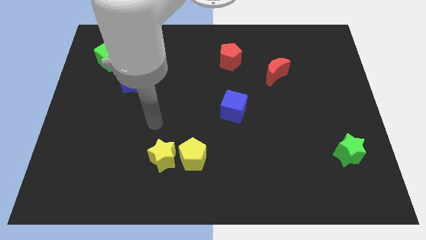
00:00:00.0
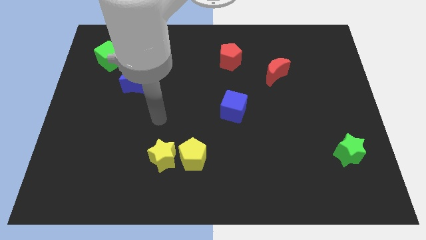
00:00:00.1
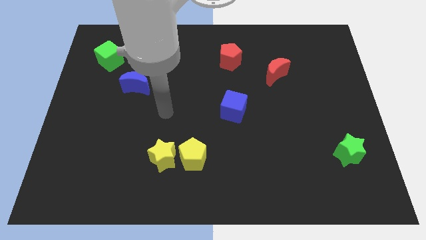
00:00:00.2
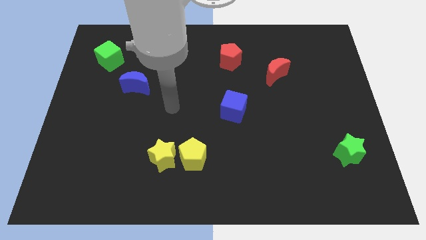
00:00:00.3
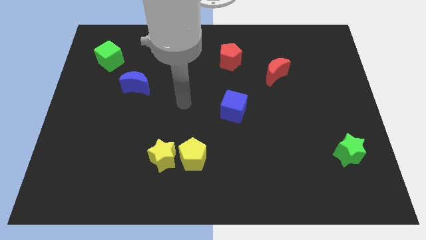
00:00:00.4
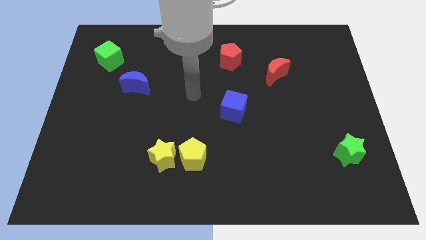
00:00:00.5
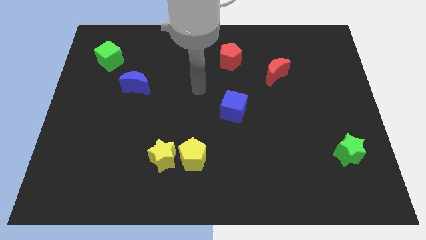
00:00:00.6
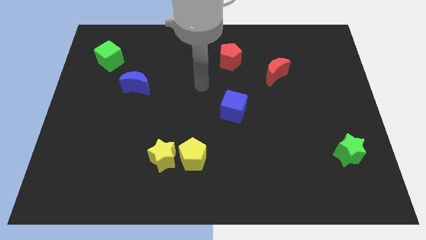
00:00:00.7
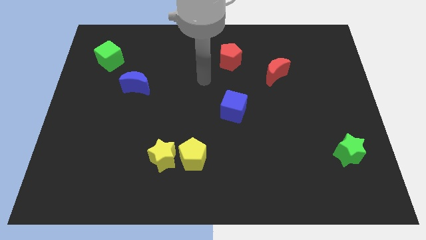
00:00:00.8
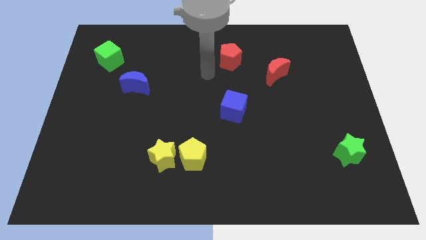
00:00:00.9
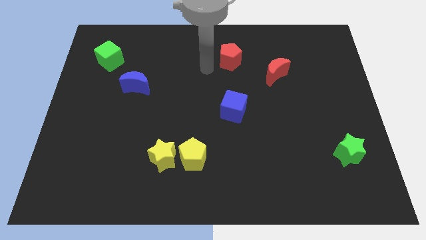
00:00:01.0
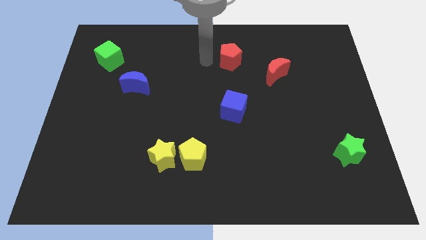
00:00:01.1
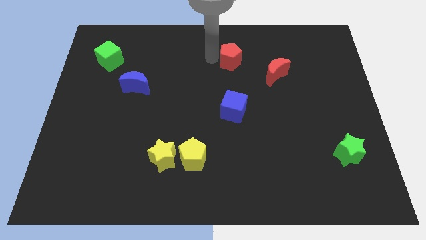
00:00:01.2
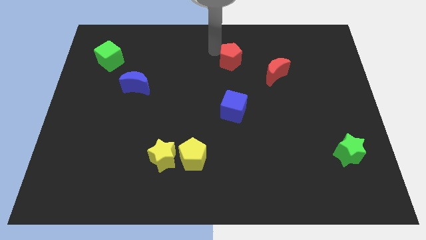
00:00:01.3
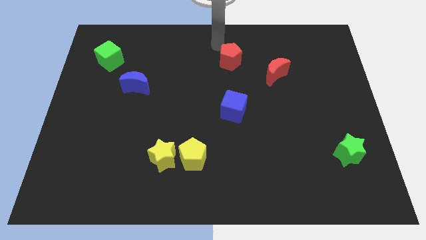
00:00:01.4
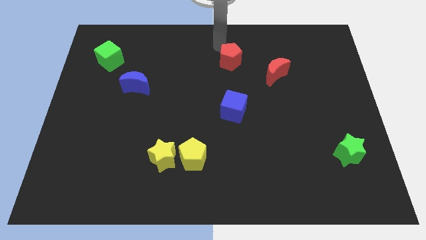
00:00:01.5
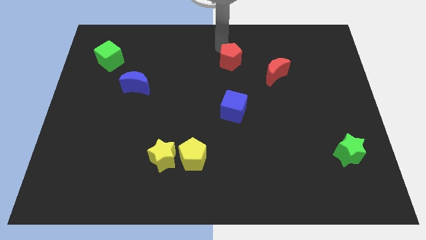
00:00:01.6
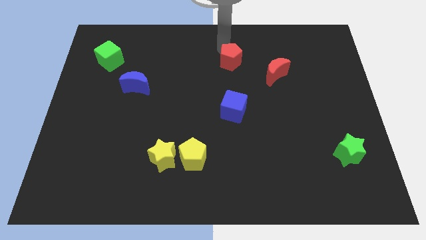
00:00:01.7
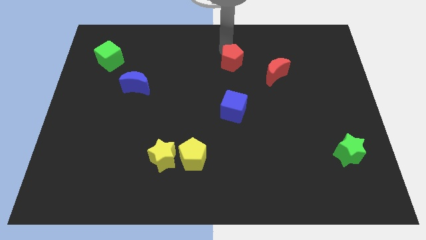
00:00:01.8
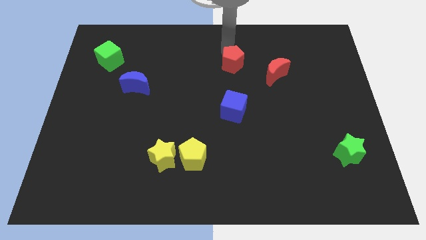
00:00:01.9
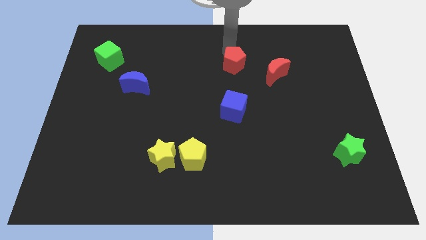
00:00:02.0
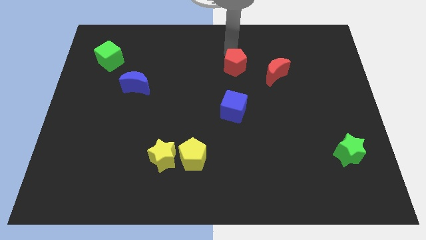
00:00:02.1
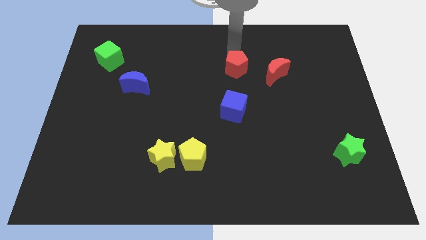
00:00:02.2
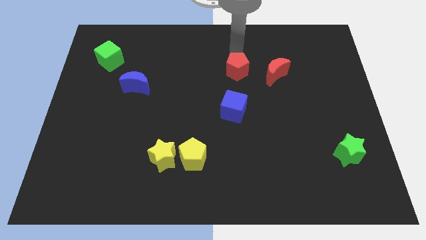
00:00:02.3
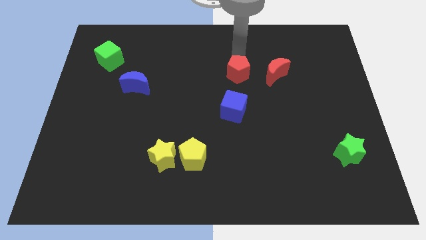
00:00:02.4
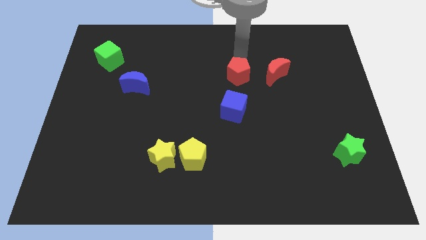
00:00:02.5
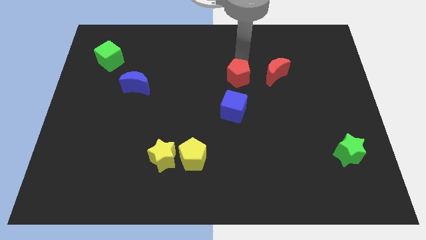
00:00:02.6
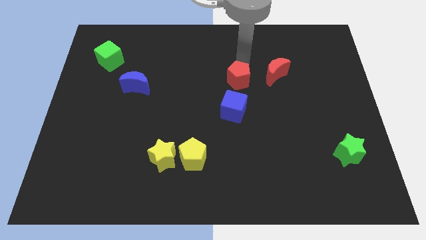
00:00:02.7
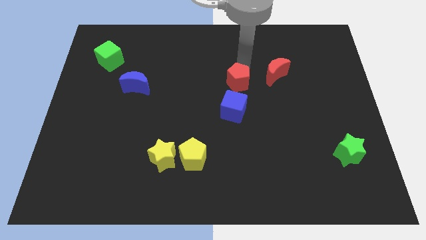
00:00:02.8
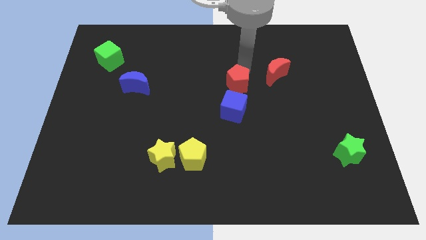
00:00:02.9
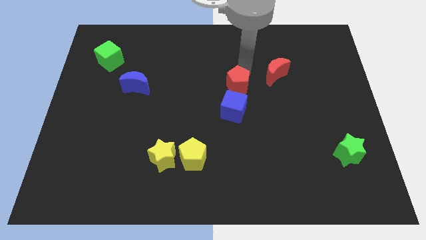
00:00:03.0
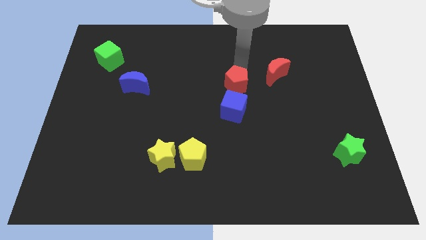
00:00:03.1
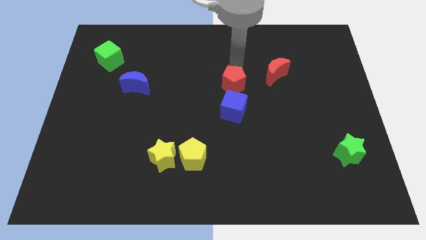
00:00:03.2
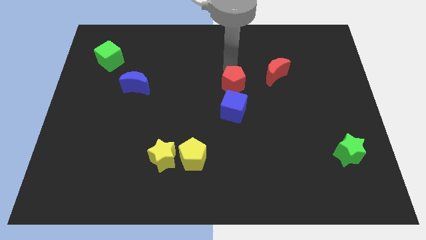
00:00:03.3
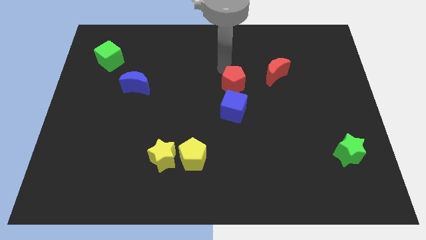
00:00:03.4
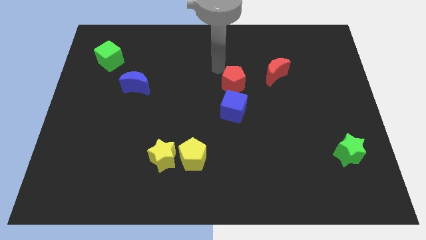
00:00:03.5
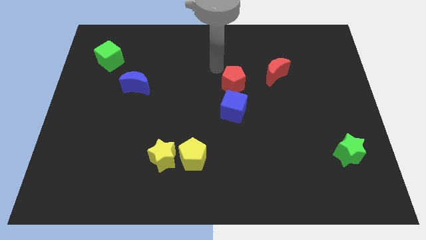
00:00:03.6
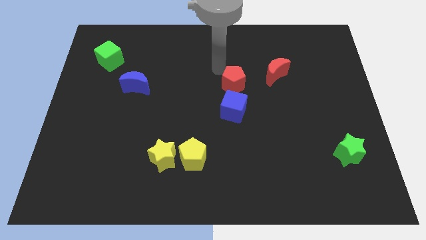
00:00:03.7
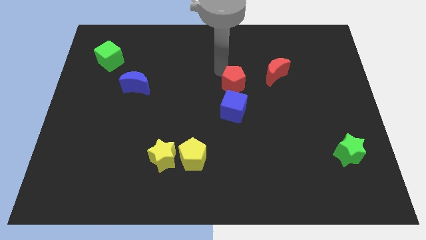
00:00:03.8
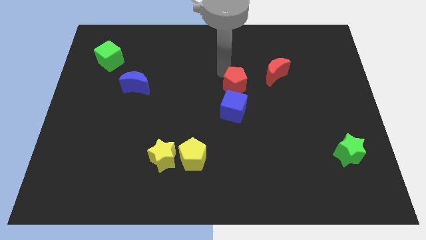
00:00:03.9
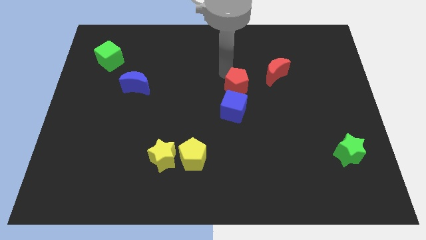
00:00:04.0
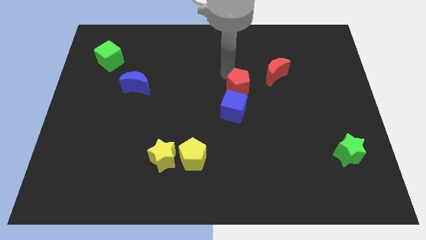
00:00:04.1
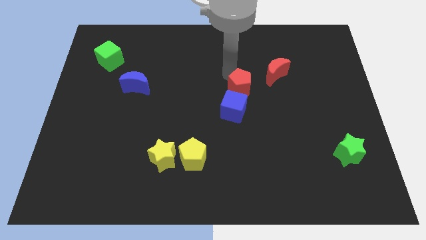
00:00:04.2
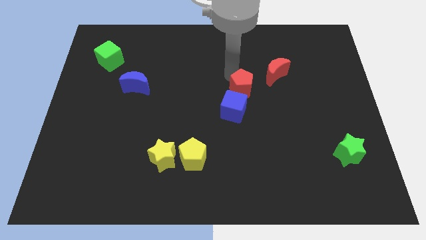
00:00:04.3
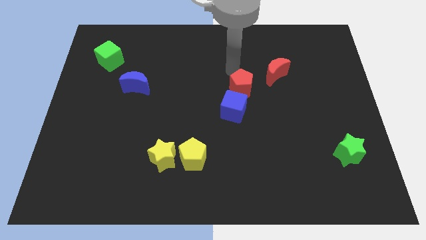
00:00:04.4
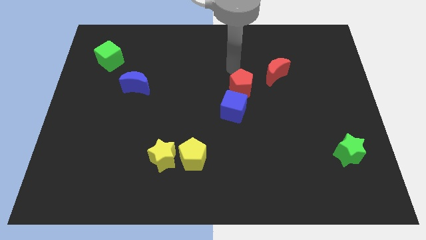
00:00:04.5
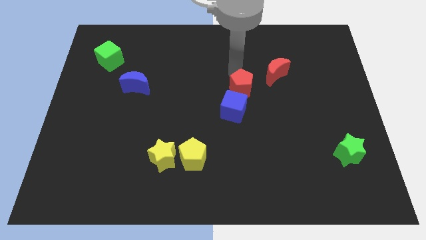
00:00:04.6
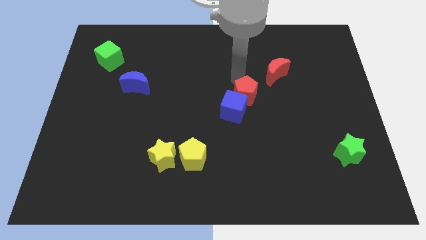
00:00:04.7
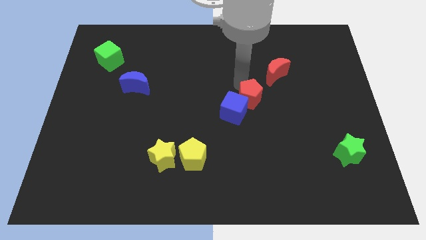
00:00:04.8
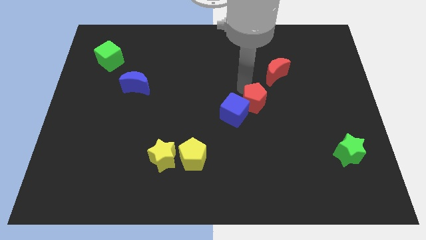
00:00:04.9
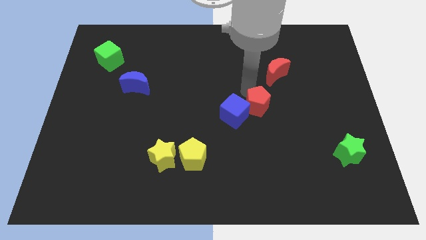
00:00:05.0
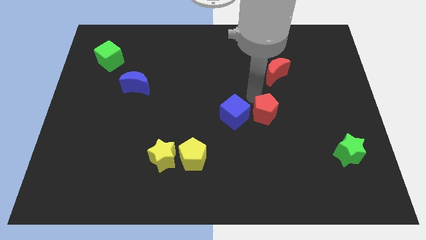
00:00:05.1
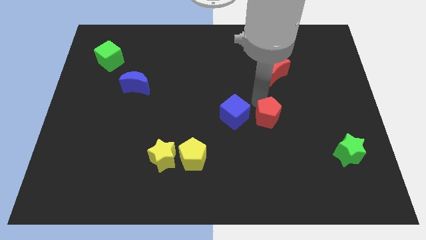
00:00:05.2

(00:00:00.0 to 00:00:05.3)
move the red pentagon diagonally down and to the right of the blue cube

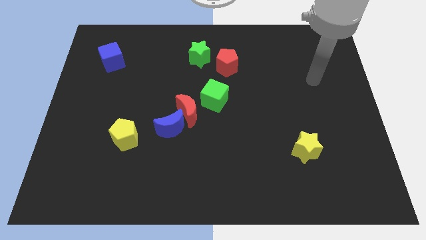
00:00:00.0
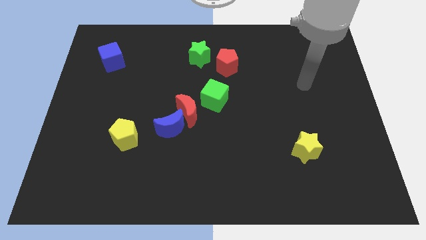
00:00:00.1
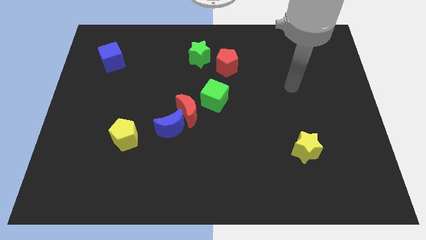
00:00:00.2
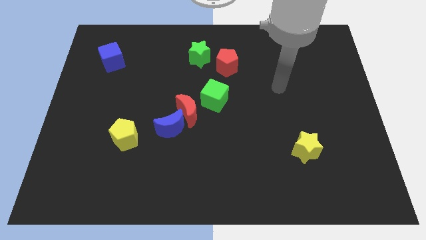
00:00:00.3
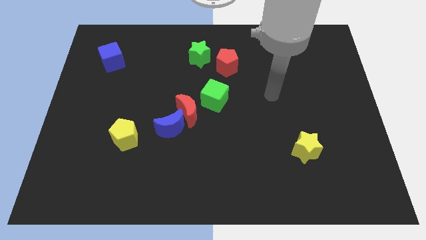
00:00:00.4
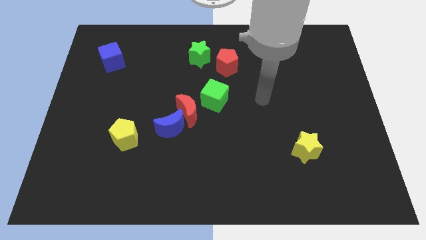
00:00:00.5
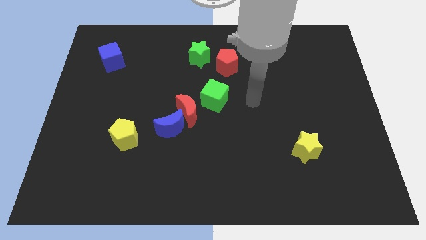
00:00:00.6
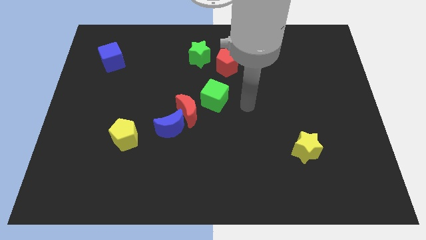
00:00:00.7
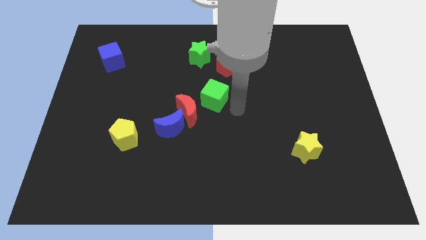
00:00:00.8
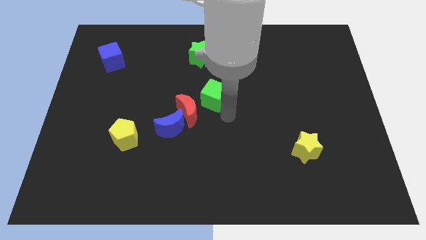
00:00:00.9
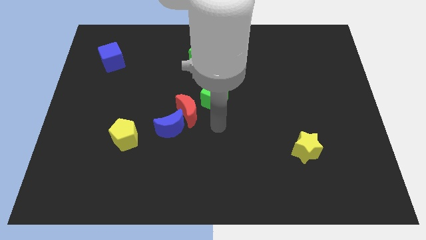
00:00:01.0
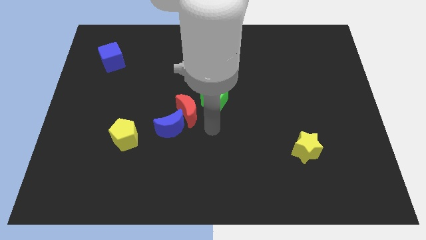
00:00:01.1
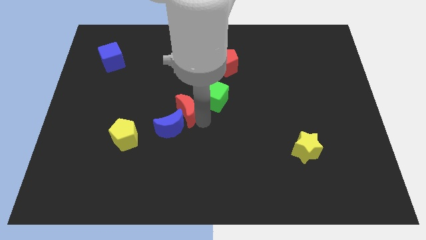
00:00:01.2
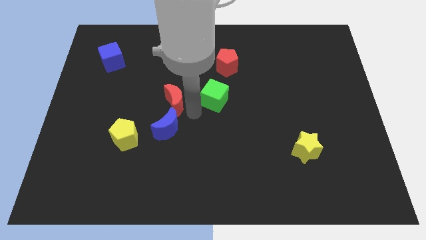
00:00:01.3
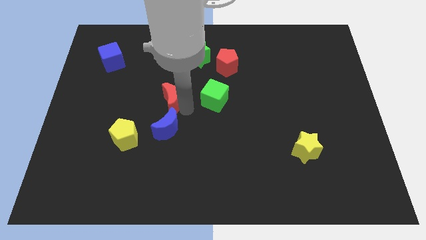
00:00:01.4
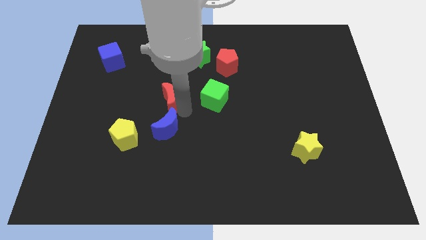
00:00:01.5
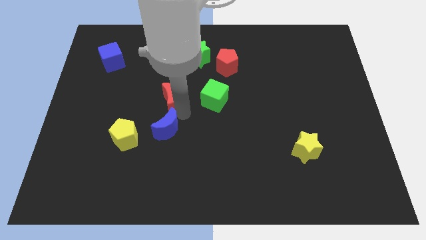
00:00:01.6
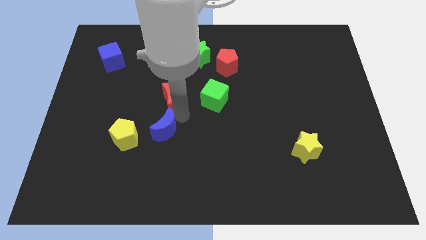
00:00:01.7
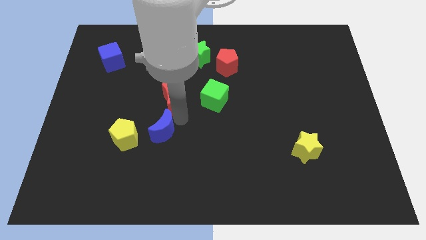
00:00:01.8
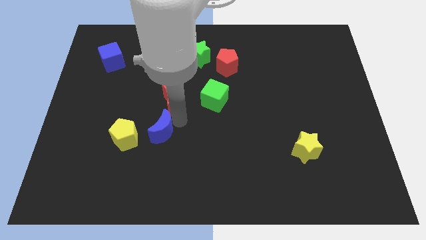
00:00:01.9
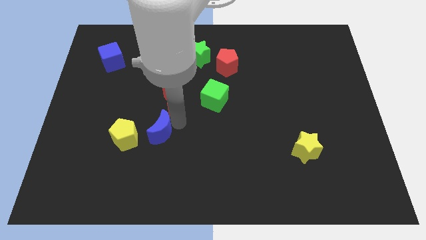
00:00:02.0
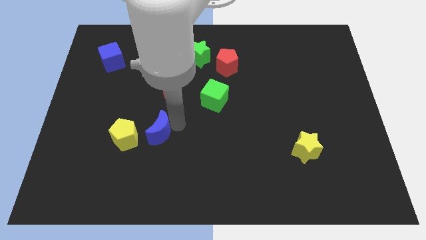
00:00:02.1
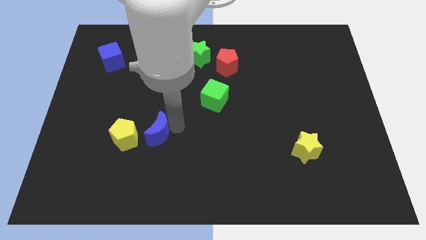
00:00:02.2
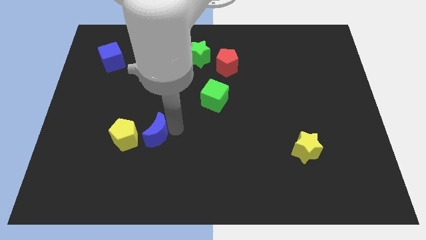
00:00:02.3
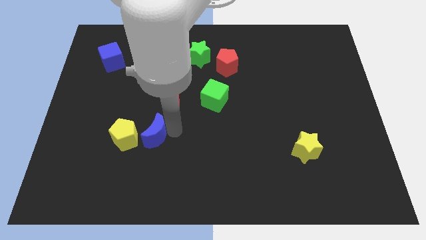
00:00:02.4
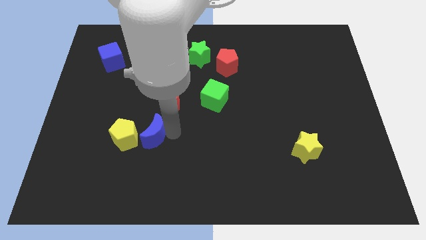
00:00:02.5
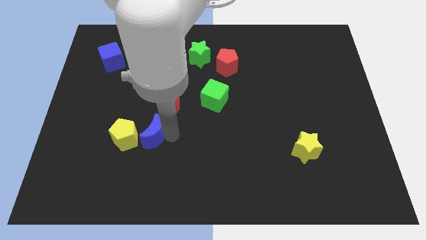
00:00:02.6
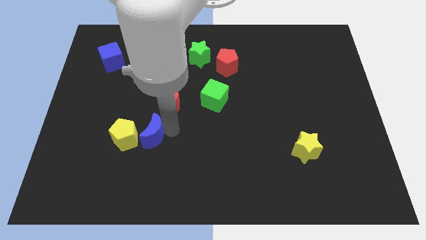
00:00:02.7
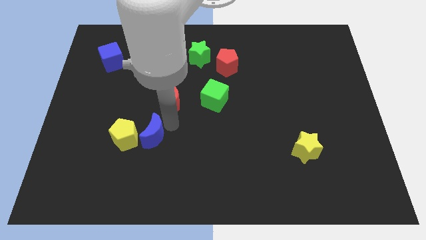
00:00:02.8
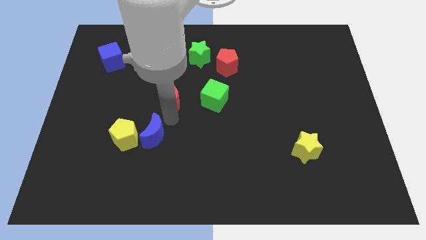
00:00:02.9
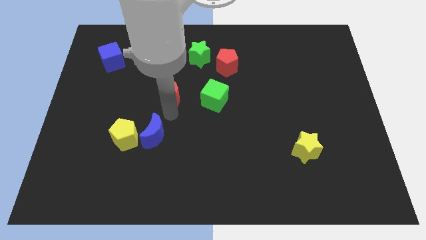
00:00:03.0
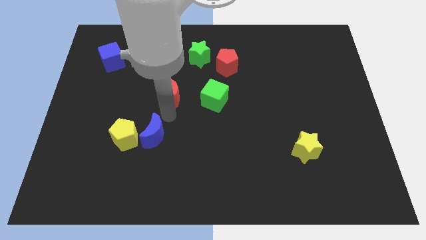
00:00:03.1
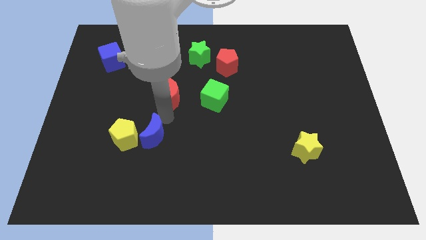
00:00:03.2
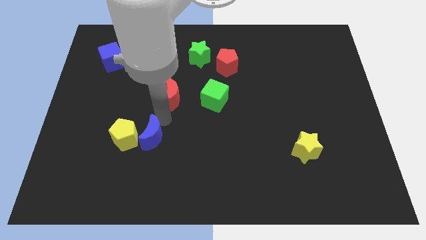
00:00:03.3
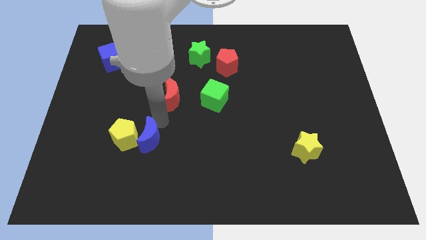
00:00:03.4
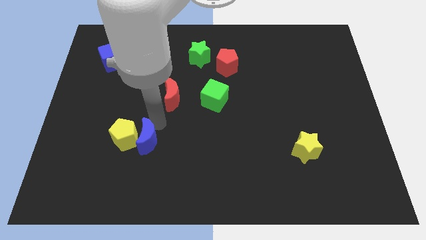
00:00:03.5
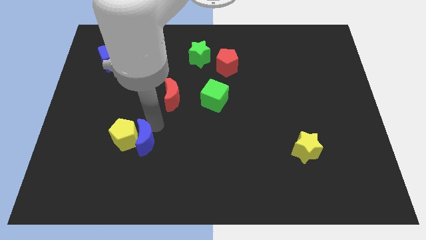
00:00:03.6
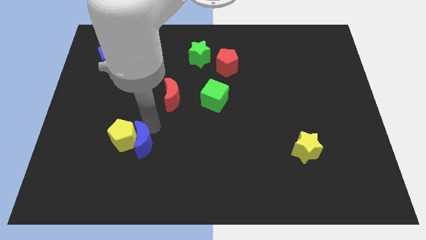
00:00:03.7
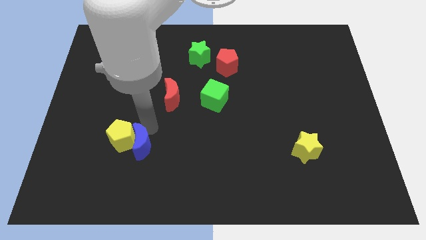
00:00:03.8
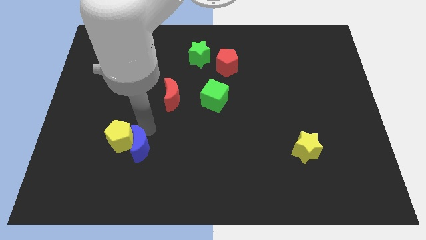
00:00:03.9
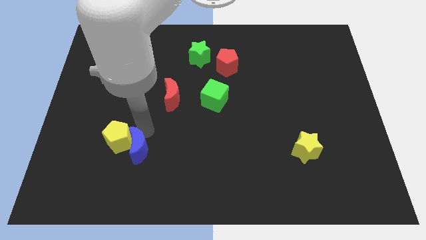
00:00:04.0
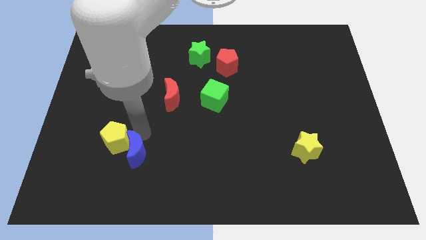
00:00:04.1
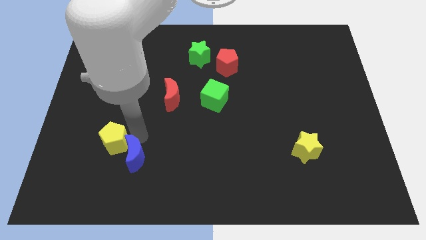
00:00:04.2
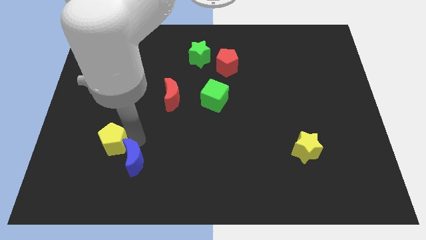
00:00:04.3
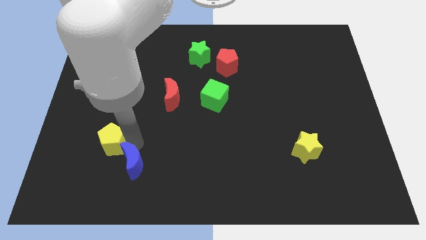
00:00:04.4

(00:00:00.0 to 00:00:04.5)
push the blue moon to the bottom of the yellow pentagon
